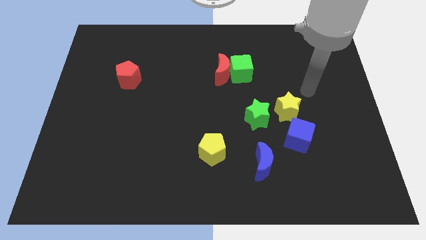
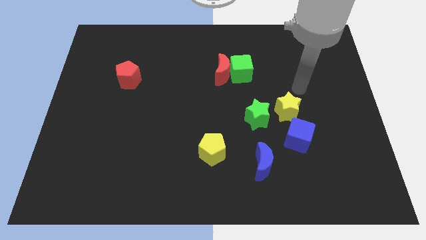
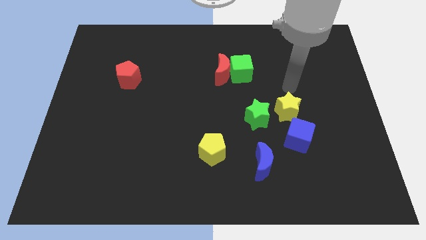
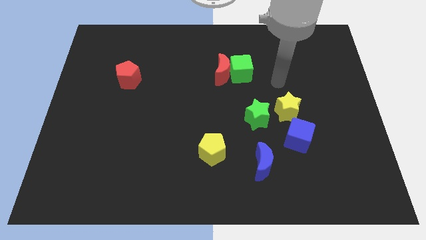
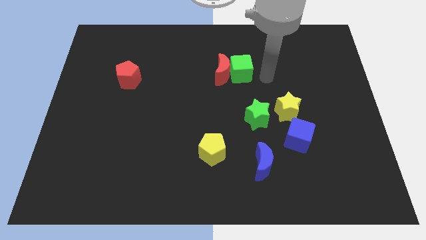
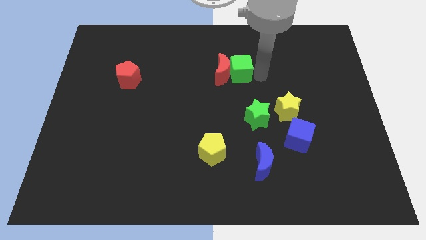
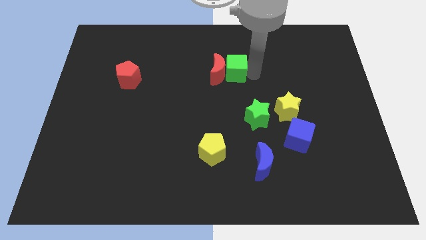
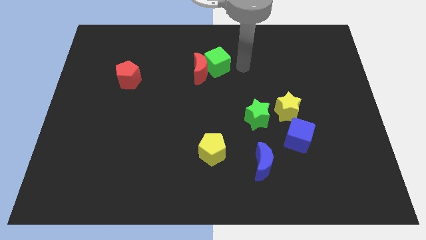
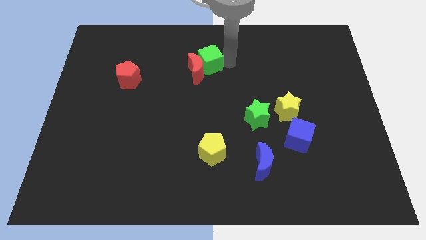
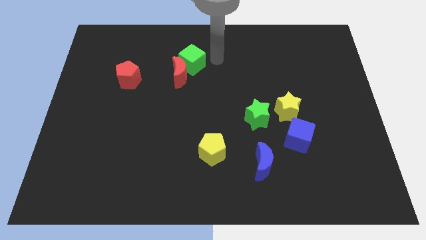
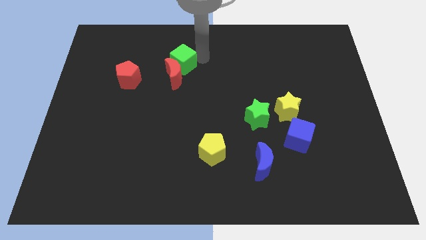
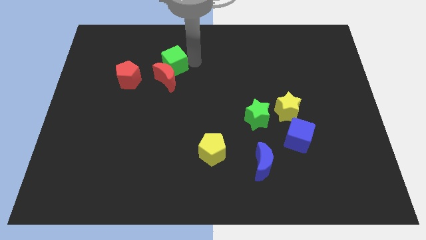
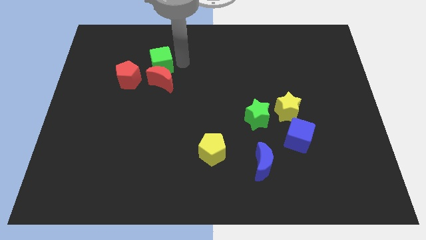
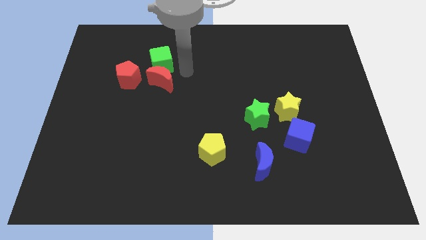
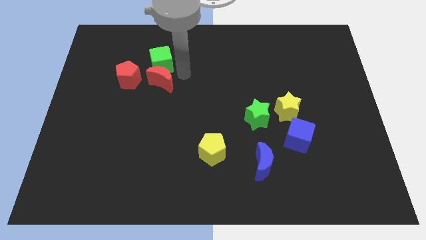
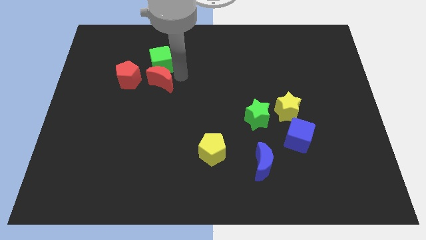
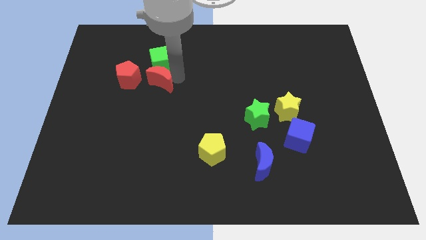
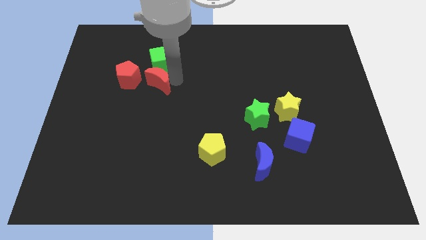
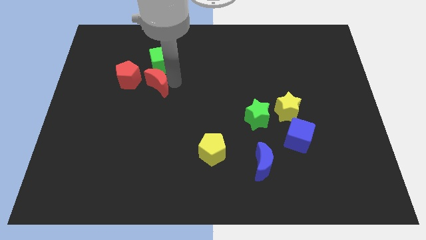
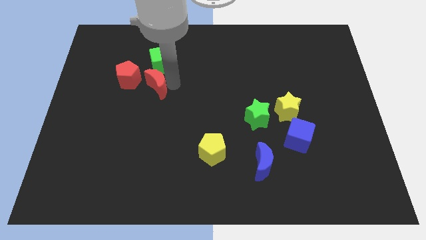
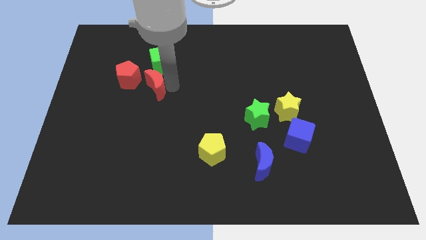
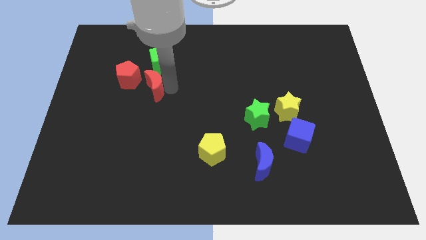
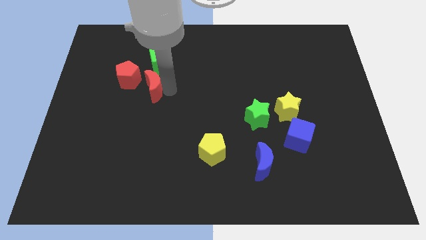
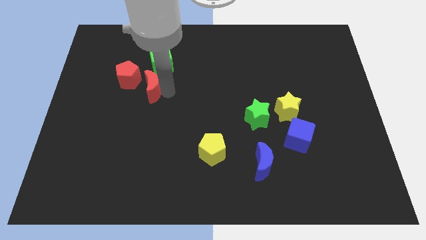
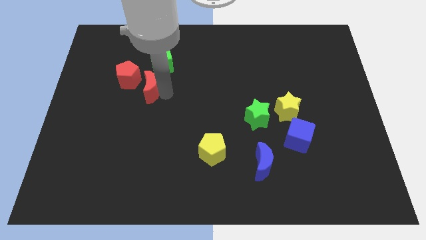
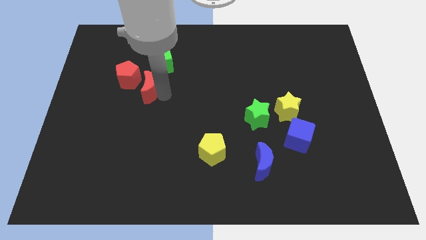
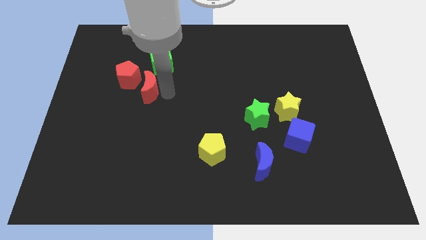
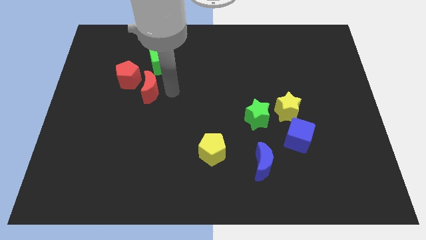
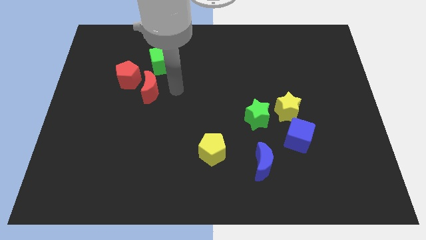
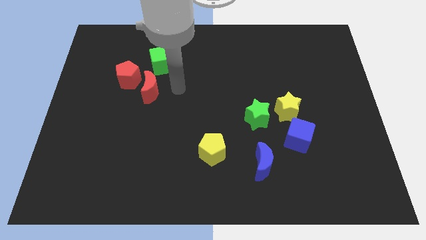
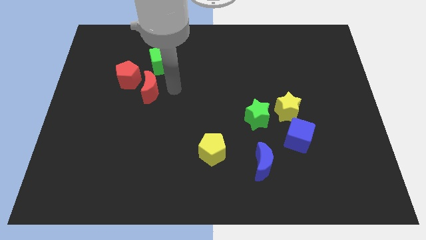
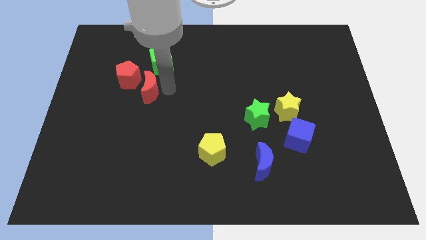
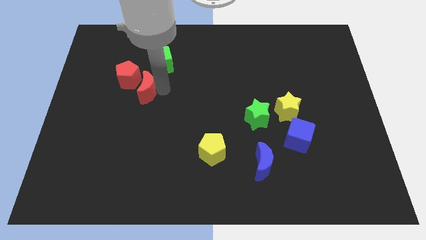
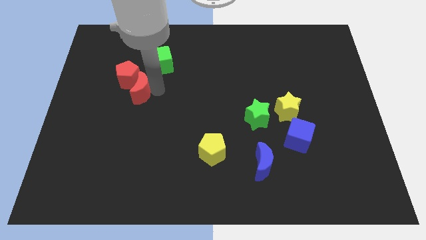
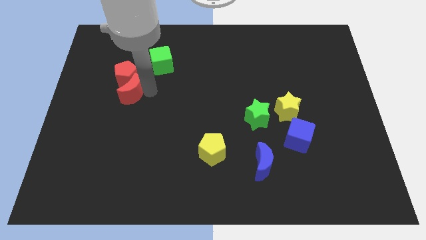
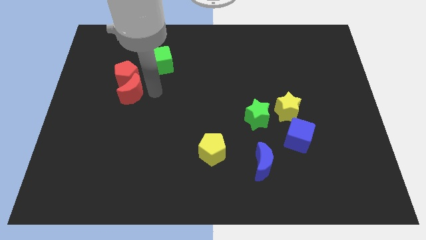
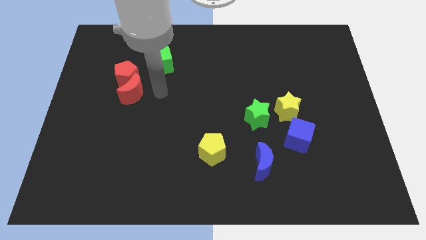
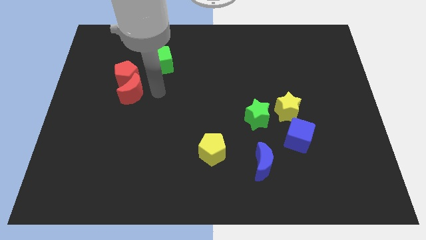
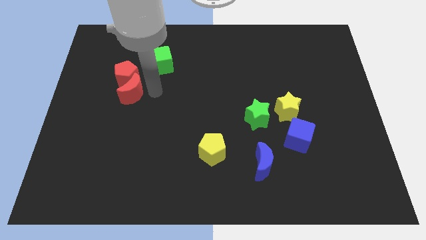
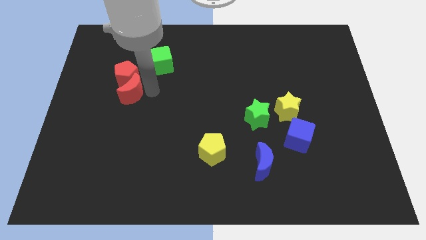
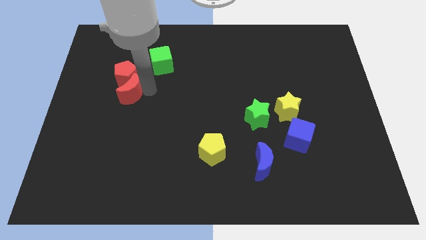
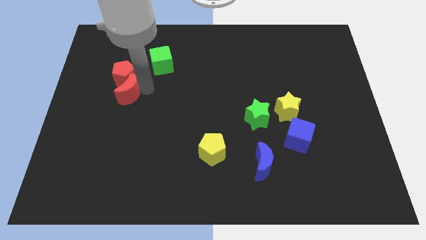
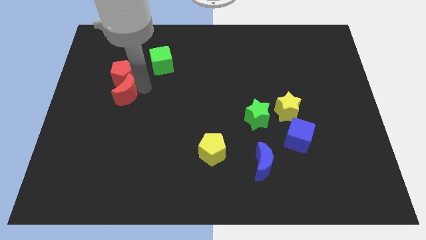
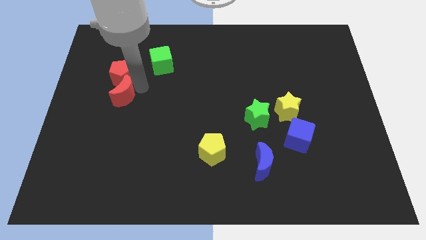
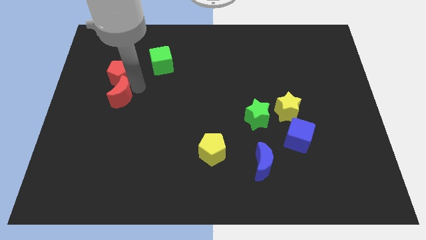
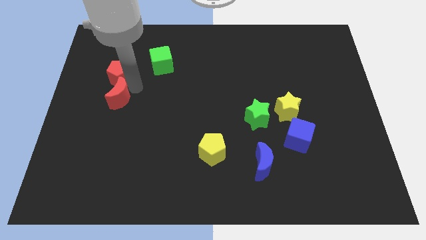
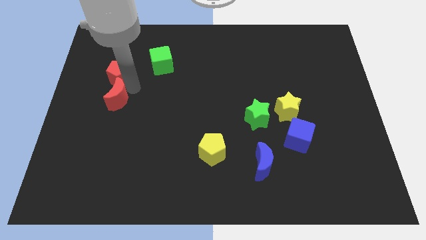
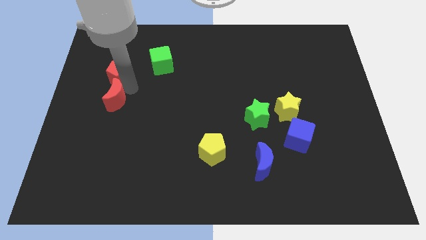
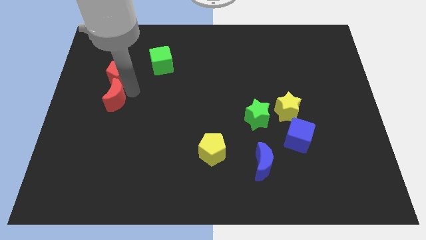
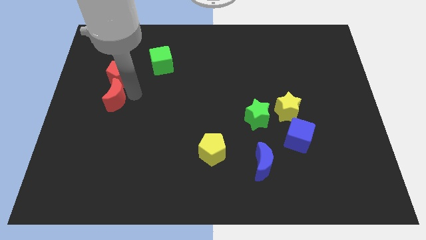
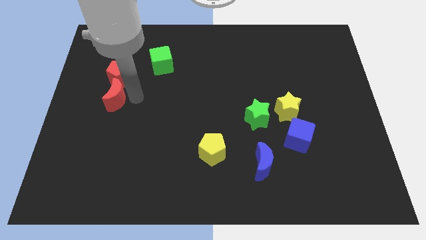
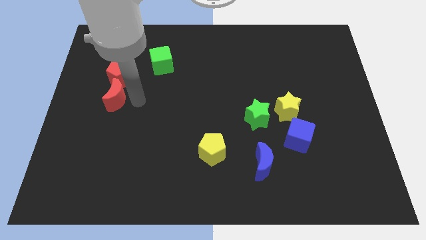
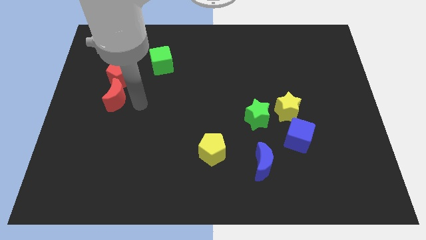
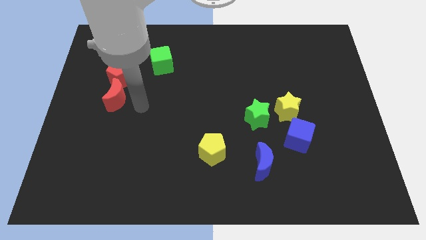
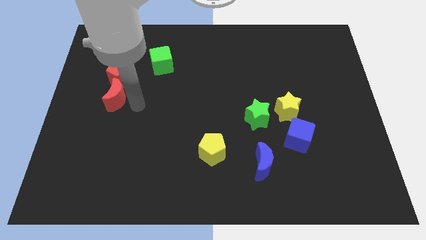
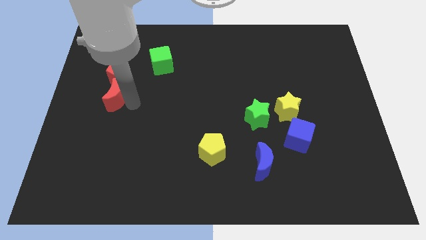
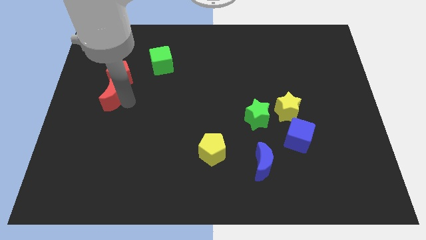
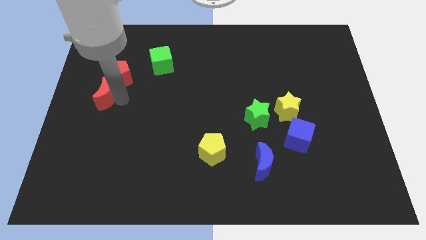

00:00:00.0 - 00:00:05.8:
push the red moon to the left side of the board

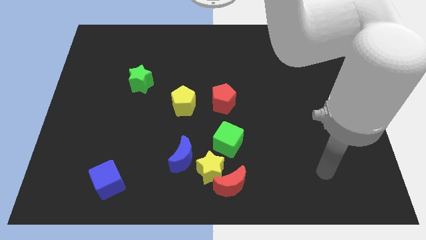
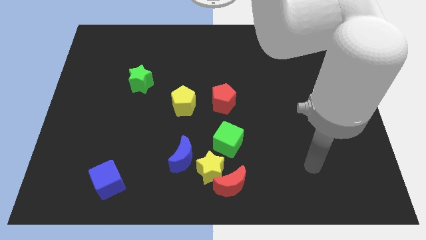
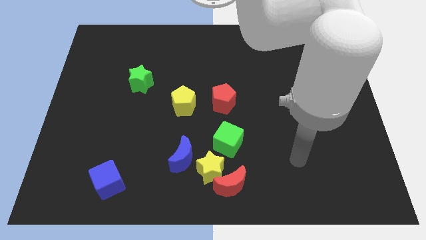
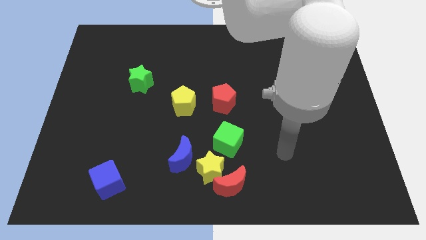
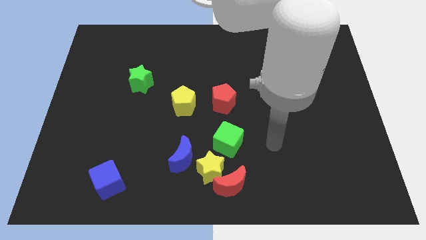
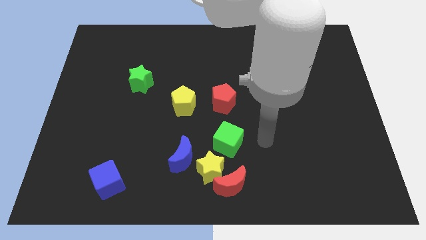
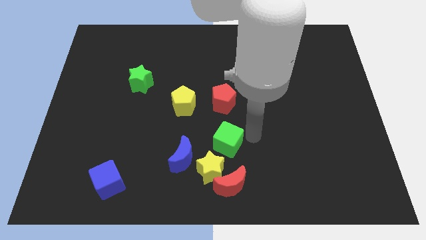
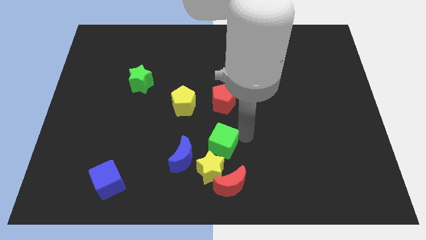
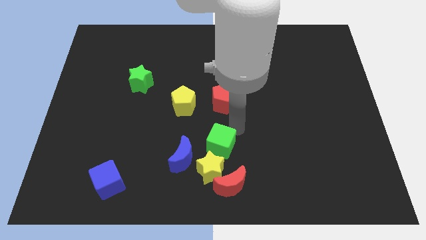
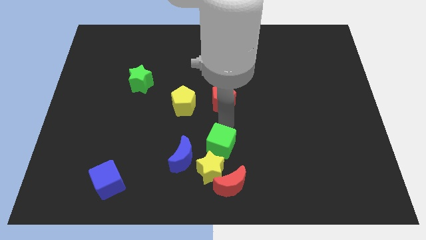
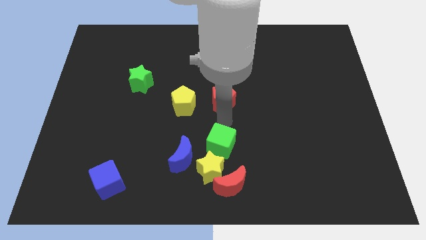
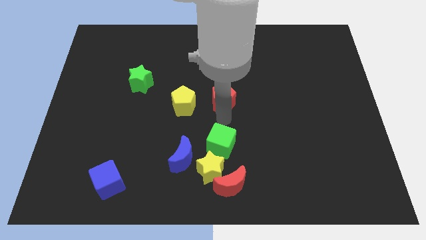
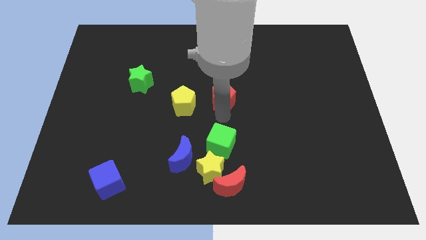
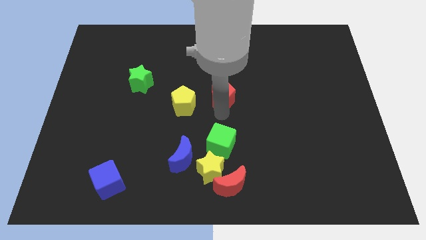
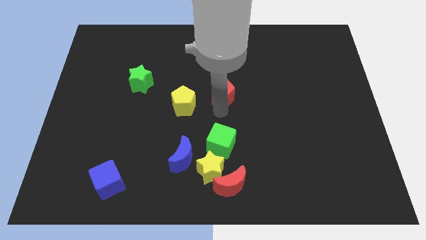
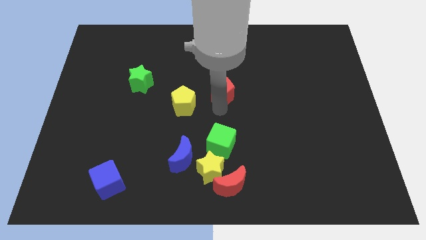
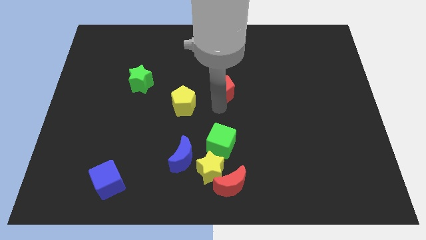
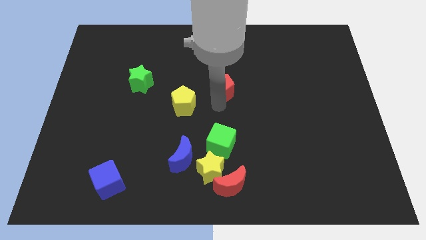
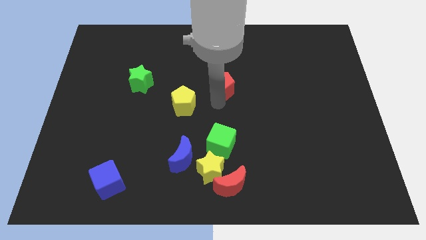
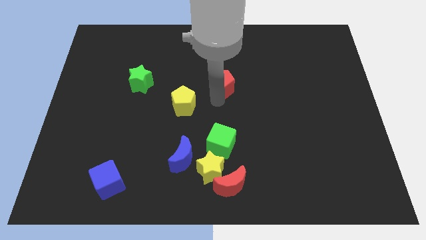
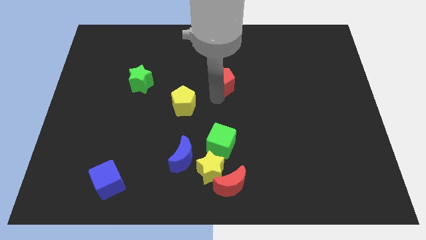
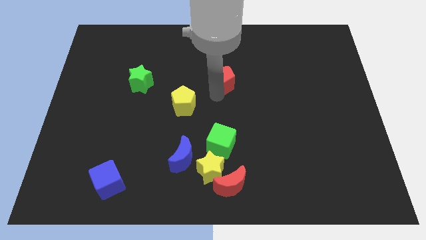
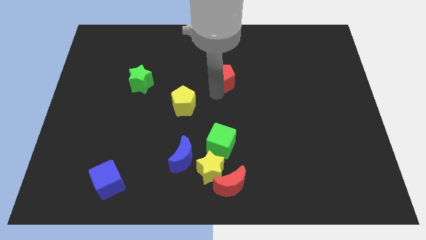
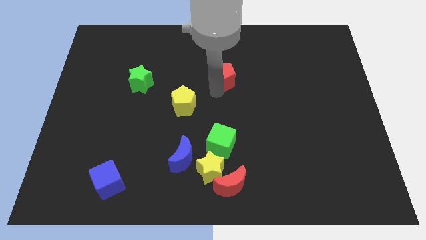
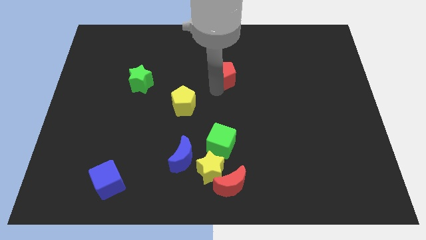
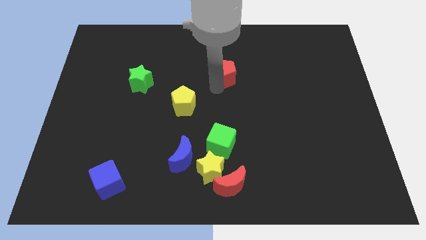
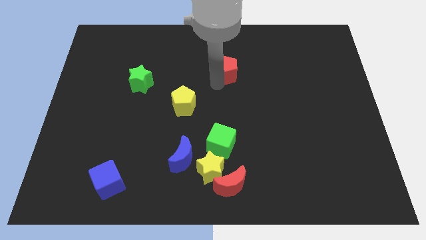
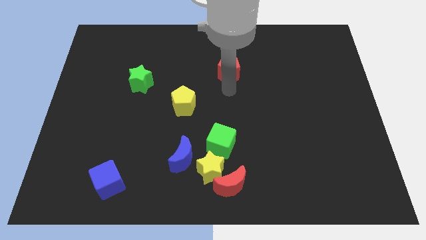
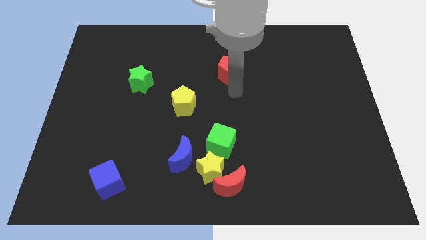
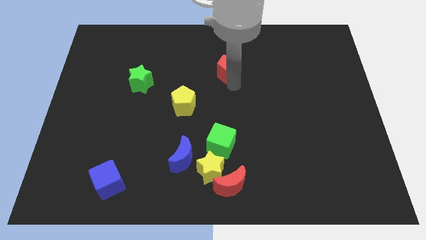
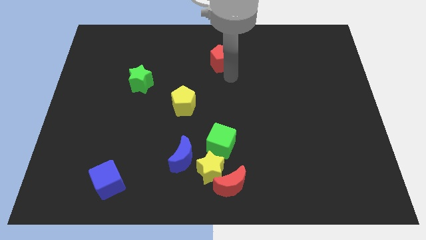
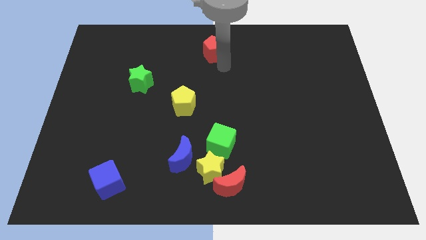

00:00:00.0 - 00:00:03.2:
put the red pentagon to the towards your base
